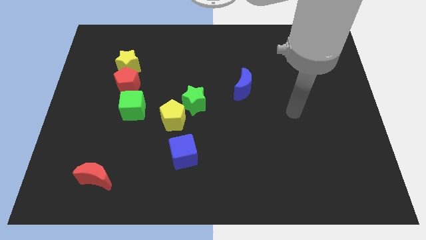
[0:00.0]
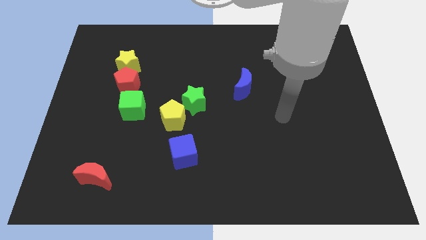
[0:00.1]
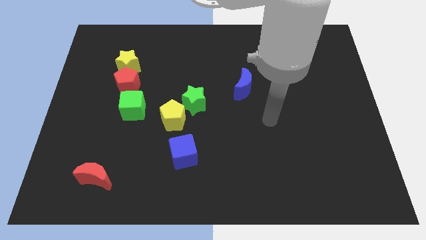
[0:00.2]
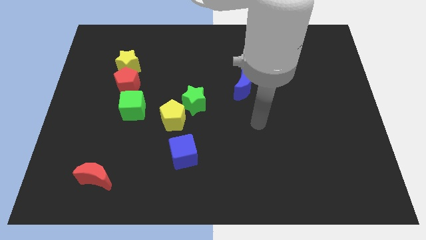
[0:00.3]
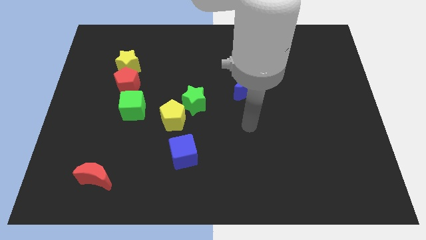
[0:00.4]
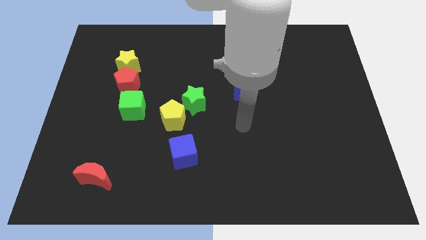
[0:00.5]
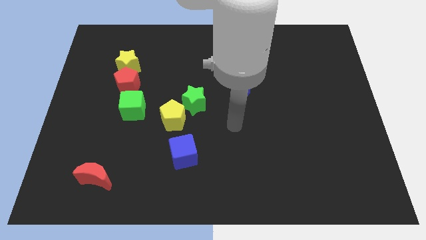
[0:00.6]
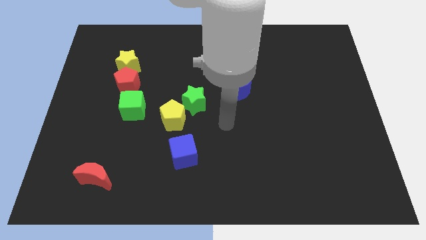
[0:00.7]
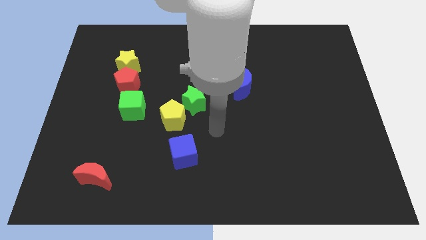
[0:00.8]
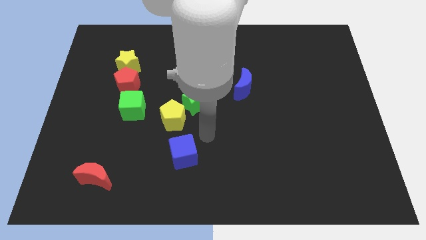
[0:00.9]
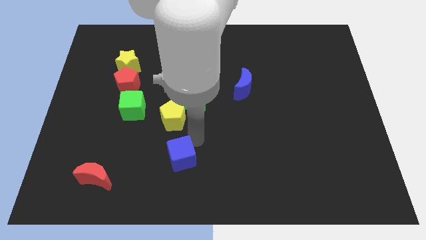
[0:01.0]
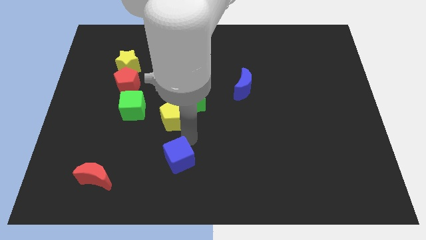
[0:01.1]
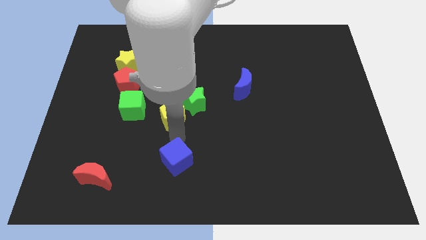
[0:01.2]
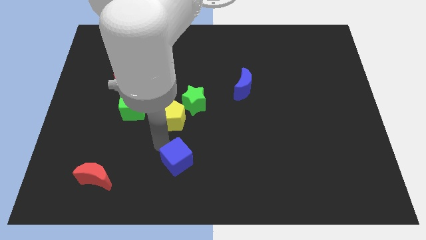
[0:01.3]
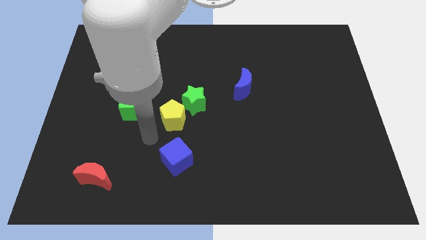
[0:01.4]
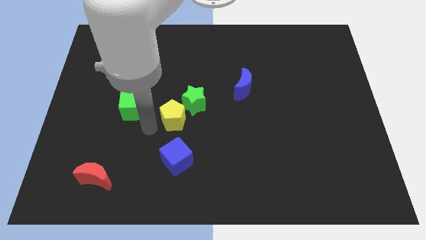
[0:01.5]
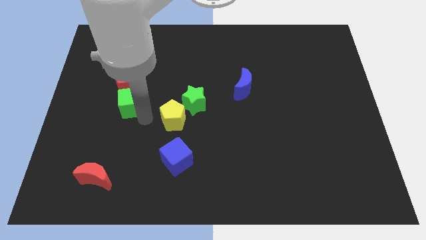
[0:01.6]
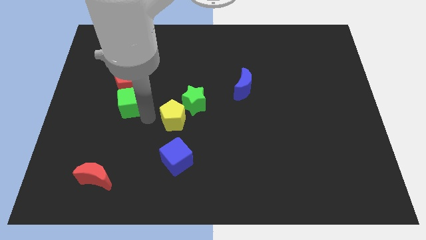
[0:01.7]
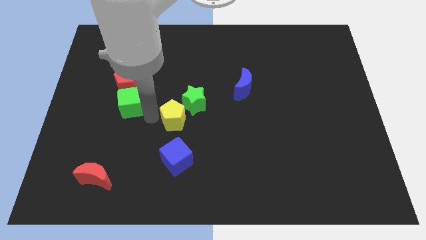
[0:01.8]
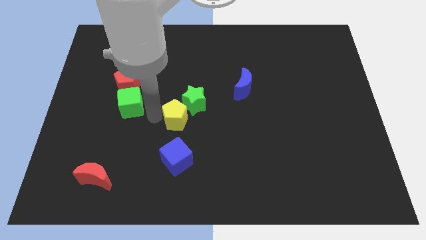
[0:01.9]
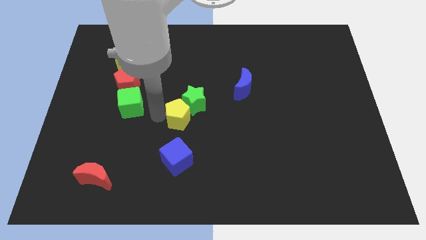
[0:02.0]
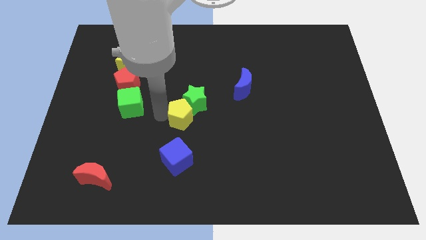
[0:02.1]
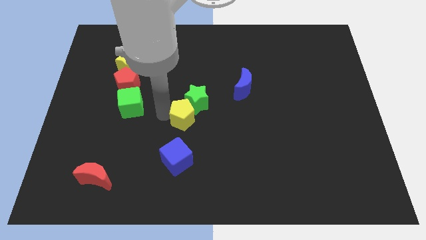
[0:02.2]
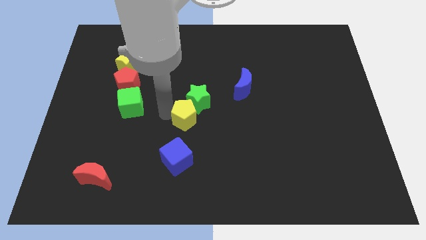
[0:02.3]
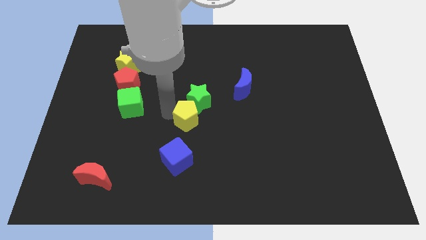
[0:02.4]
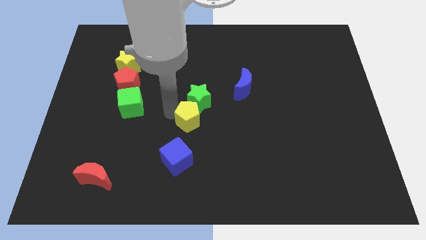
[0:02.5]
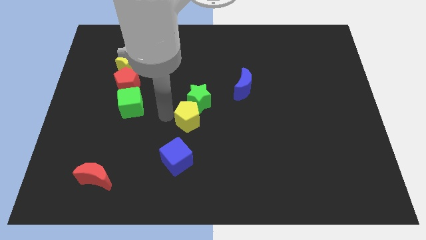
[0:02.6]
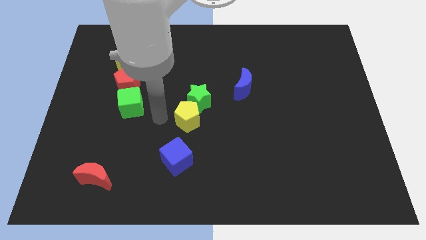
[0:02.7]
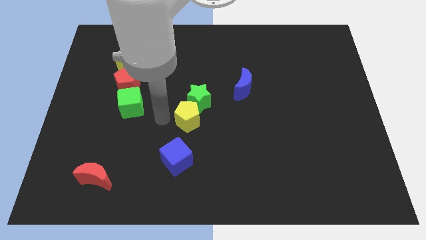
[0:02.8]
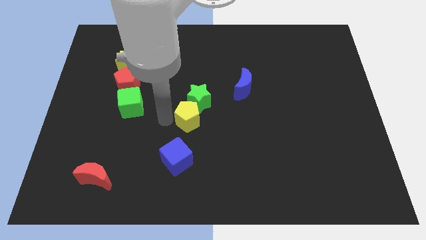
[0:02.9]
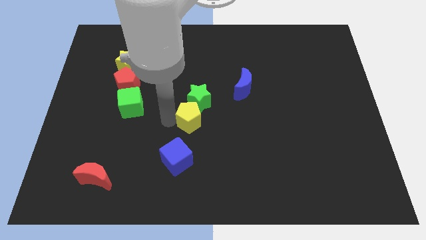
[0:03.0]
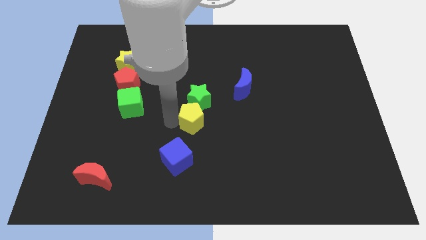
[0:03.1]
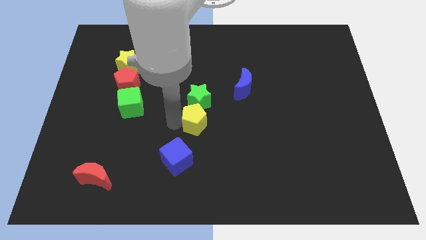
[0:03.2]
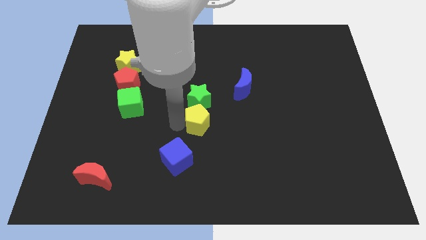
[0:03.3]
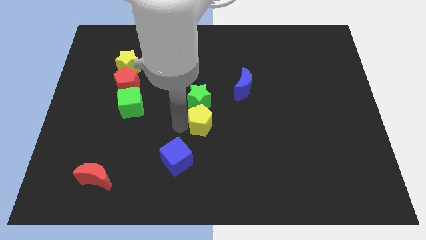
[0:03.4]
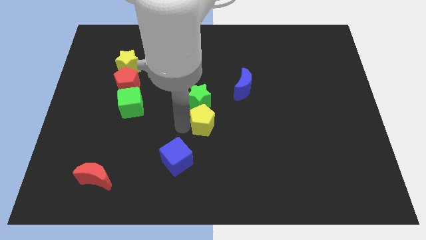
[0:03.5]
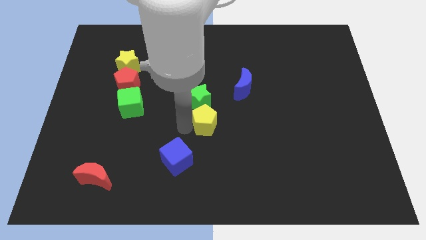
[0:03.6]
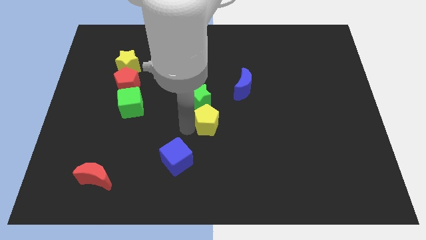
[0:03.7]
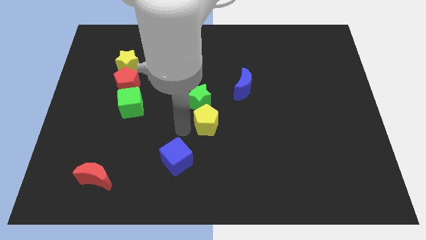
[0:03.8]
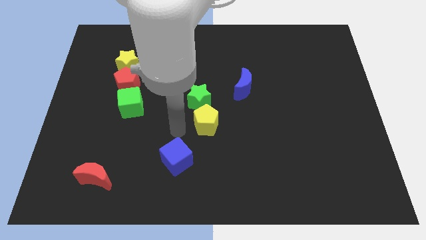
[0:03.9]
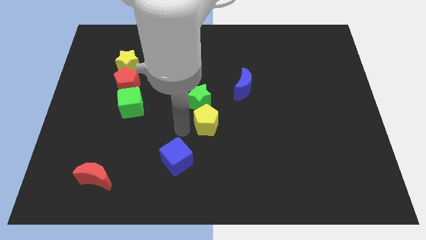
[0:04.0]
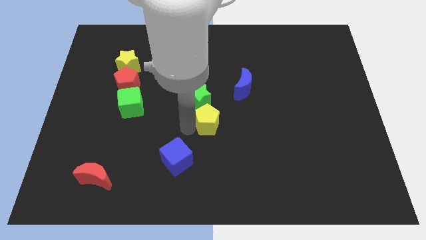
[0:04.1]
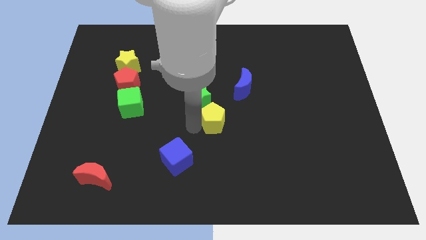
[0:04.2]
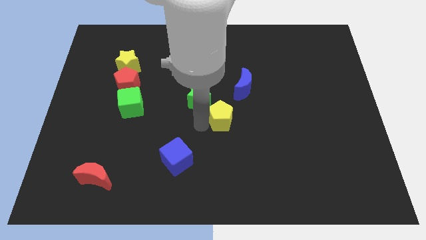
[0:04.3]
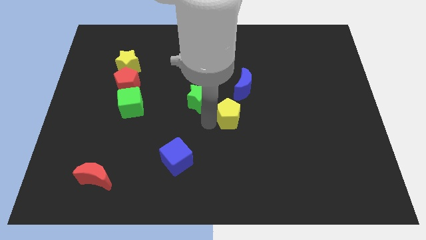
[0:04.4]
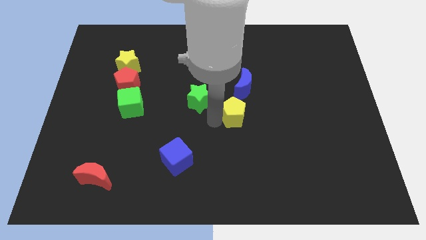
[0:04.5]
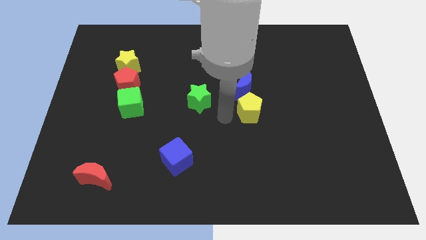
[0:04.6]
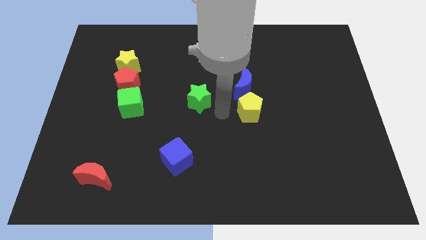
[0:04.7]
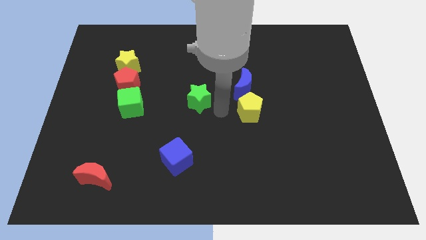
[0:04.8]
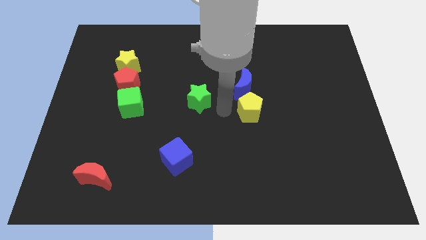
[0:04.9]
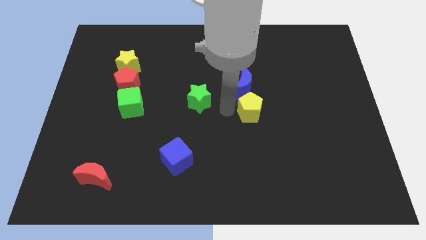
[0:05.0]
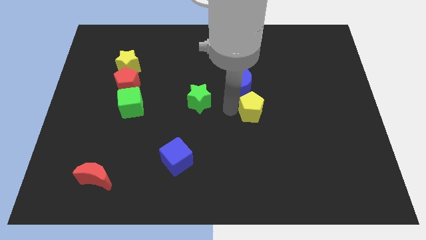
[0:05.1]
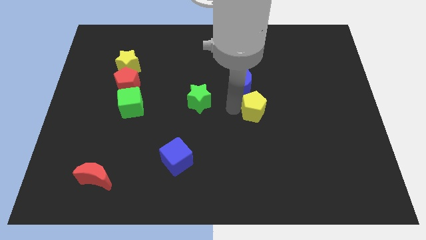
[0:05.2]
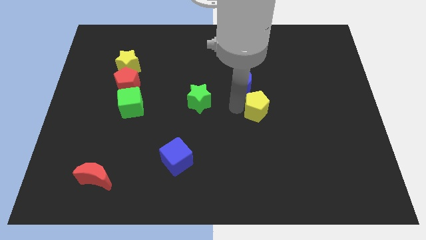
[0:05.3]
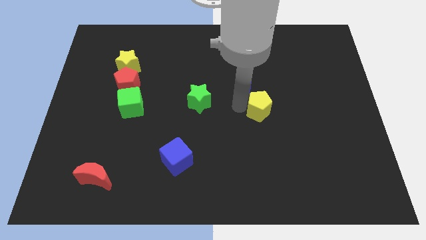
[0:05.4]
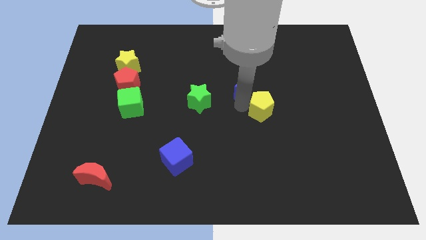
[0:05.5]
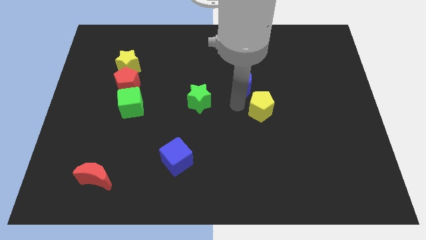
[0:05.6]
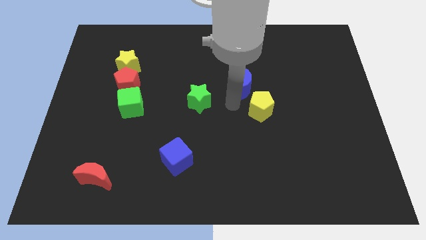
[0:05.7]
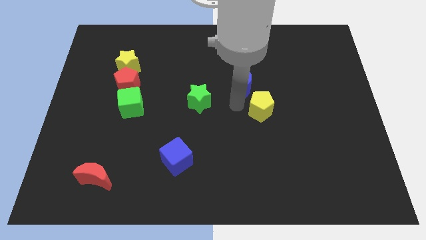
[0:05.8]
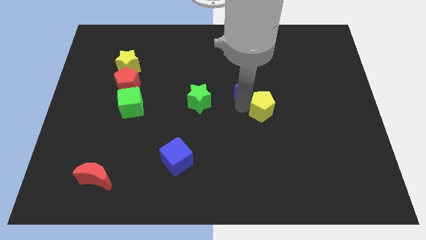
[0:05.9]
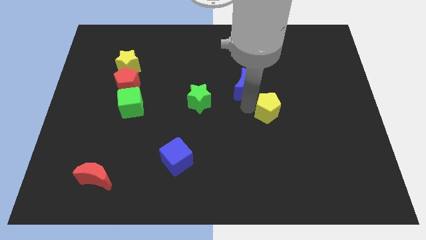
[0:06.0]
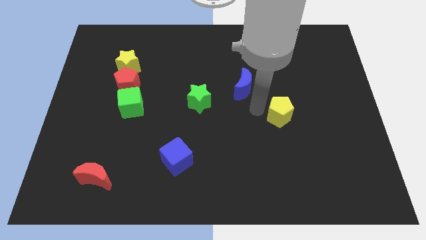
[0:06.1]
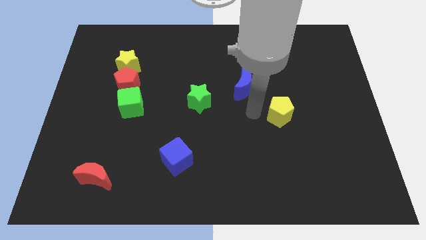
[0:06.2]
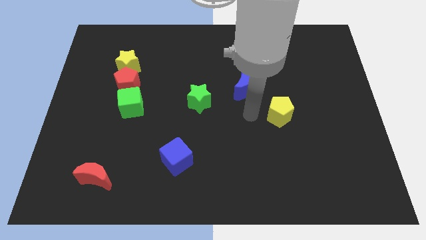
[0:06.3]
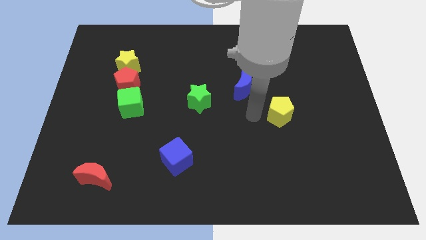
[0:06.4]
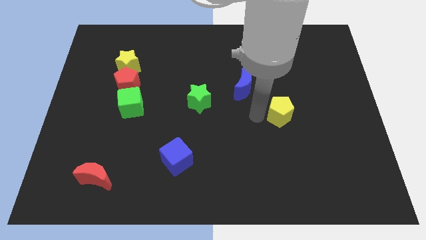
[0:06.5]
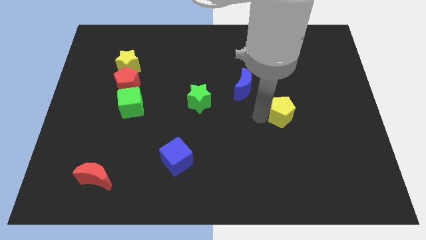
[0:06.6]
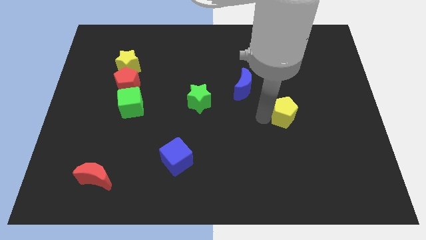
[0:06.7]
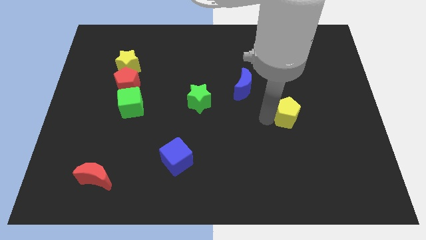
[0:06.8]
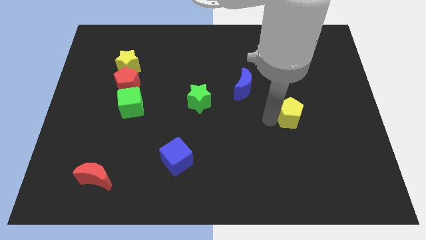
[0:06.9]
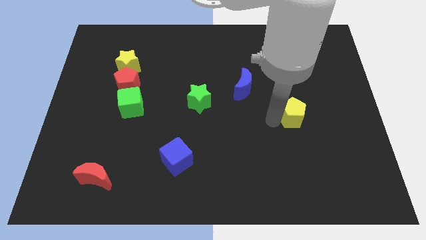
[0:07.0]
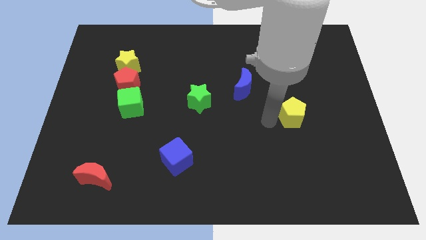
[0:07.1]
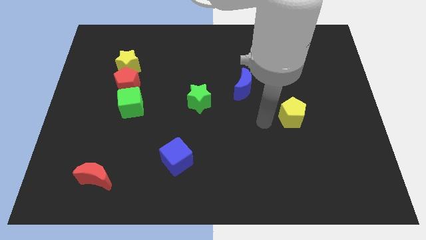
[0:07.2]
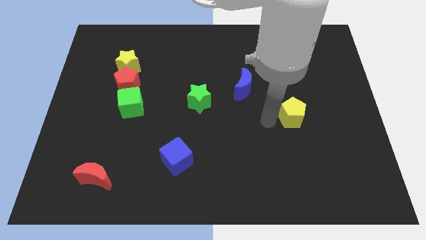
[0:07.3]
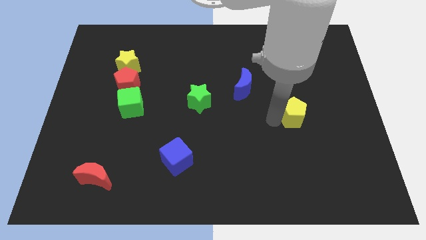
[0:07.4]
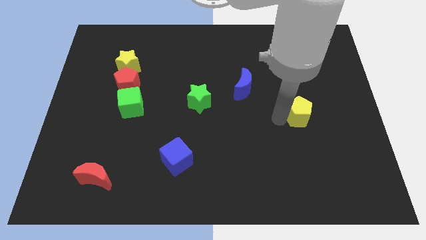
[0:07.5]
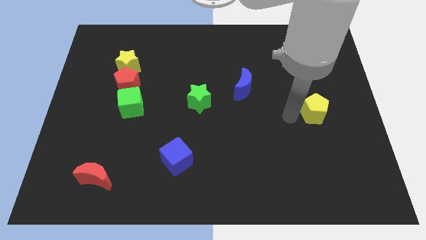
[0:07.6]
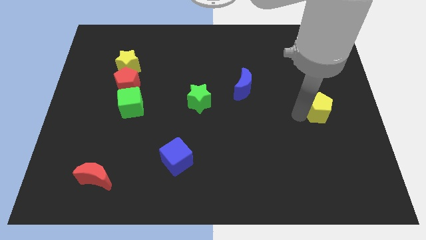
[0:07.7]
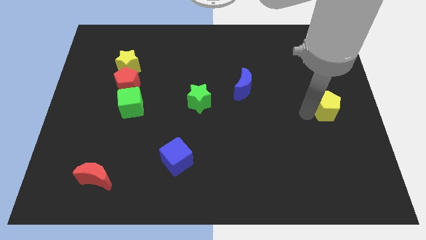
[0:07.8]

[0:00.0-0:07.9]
put the yellow pentagon to the right side of the board
